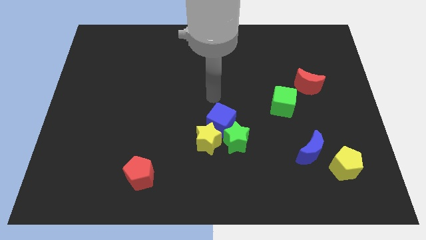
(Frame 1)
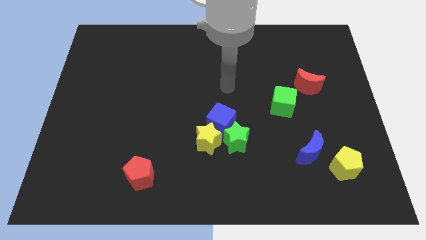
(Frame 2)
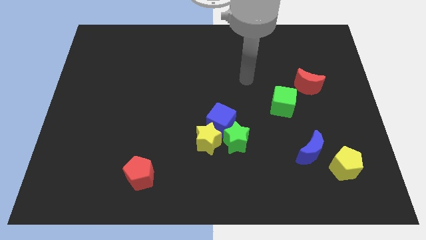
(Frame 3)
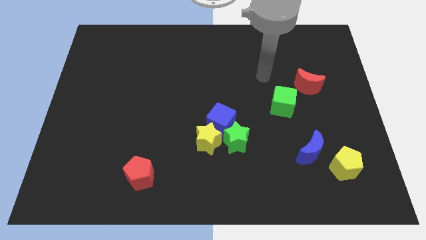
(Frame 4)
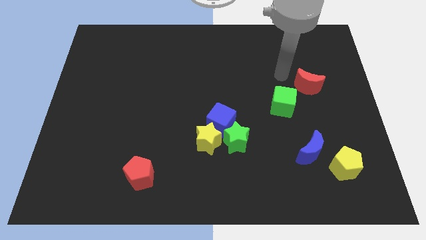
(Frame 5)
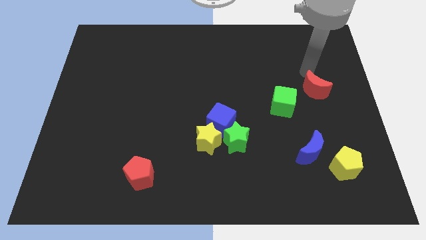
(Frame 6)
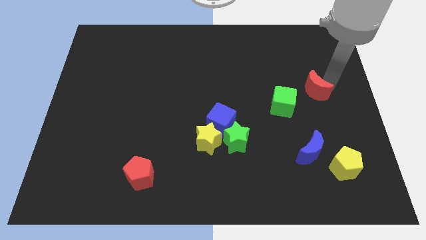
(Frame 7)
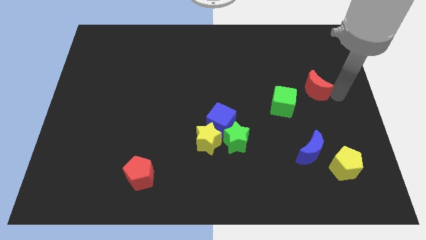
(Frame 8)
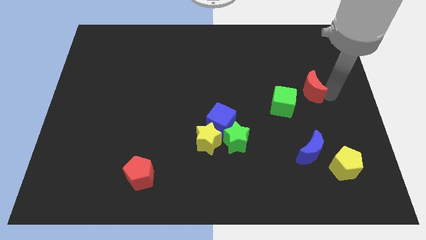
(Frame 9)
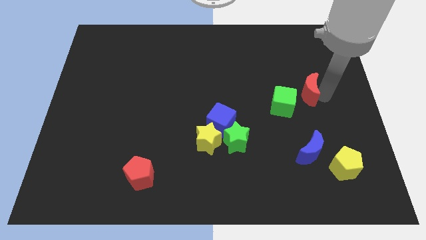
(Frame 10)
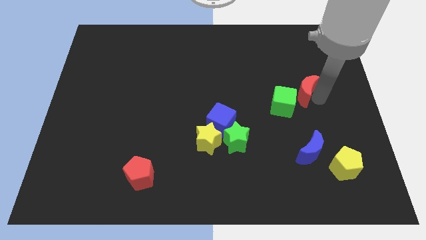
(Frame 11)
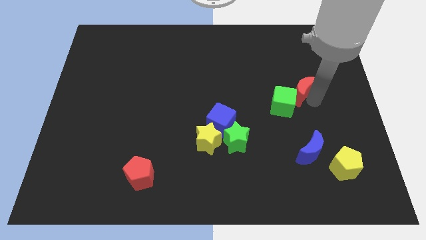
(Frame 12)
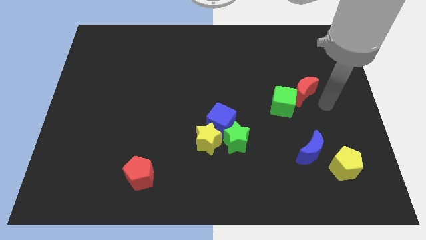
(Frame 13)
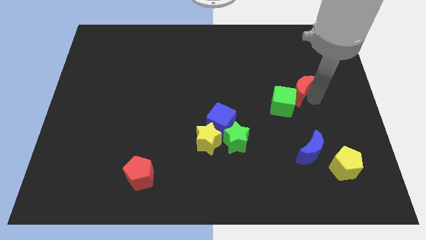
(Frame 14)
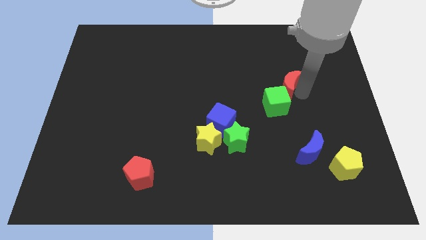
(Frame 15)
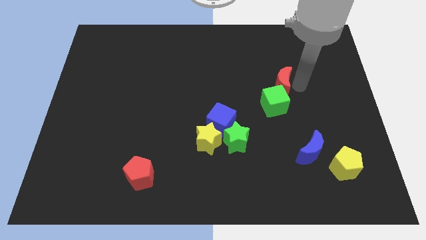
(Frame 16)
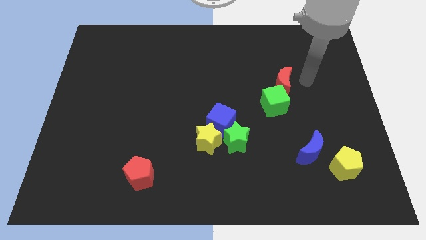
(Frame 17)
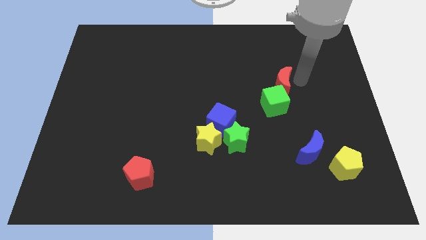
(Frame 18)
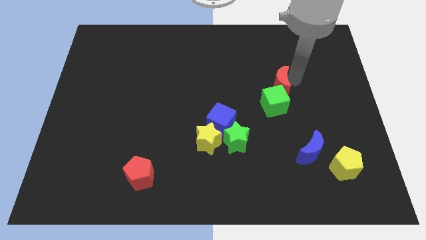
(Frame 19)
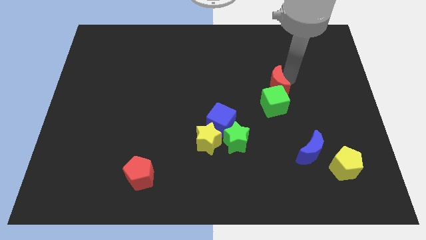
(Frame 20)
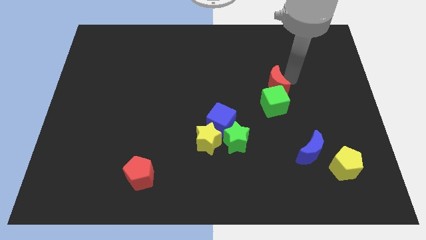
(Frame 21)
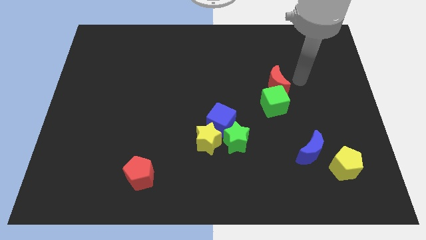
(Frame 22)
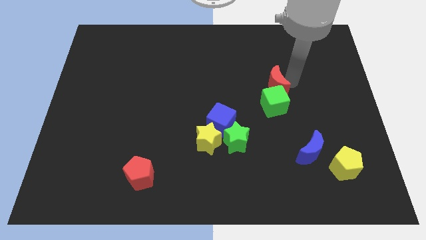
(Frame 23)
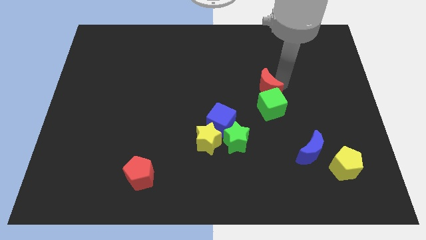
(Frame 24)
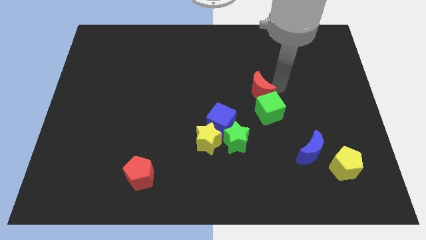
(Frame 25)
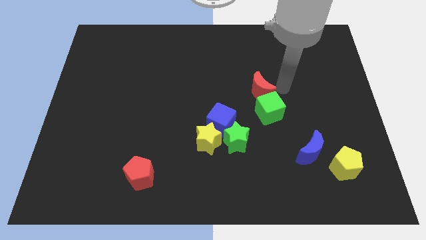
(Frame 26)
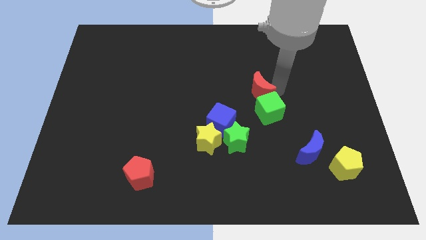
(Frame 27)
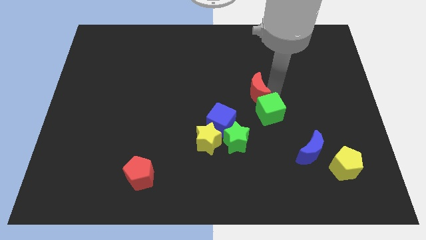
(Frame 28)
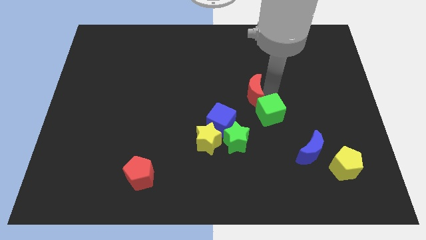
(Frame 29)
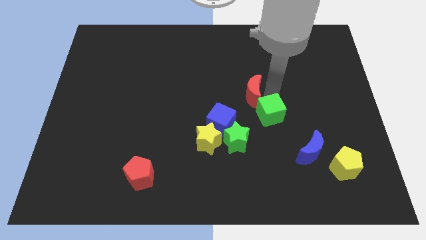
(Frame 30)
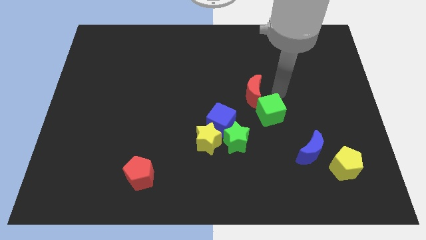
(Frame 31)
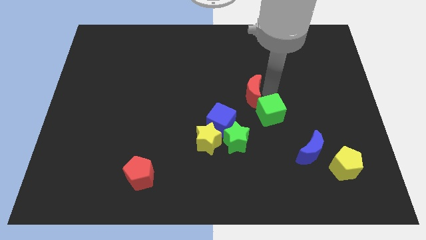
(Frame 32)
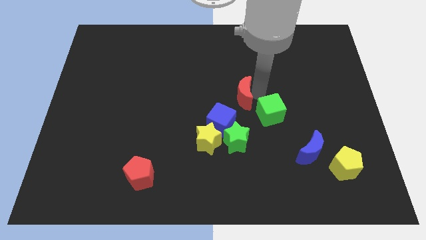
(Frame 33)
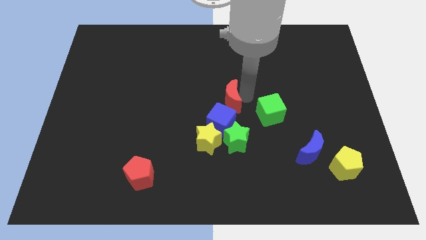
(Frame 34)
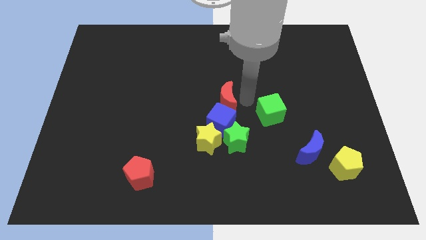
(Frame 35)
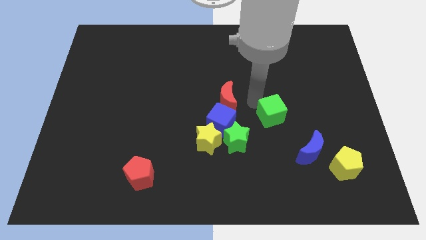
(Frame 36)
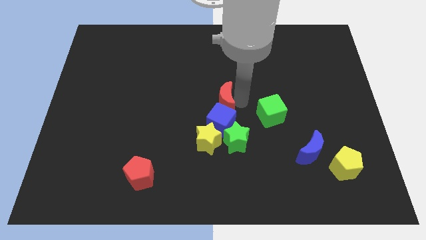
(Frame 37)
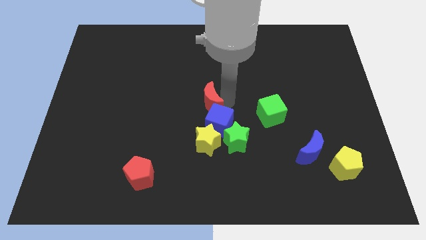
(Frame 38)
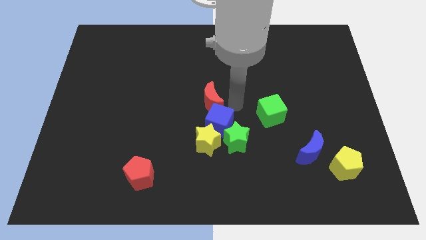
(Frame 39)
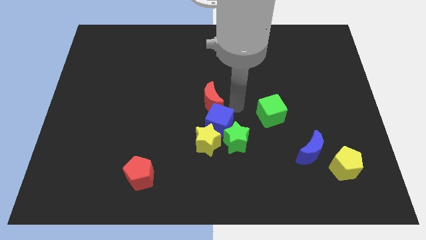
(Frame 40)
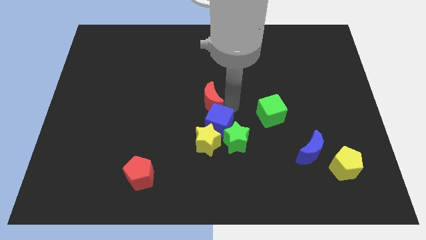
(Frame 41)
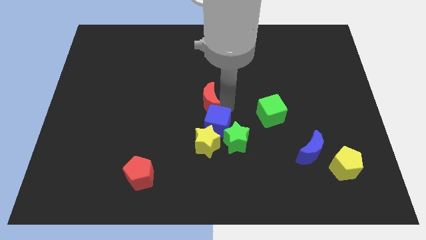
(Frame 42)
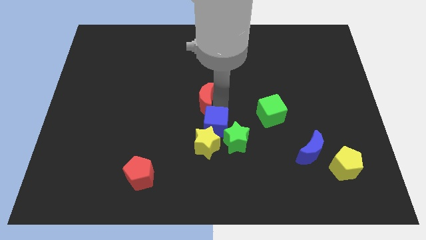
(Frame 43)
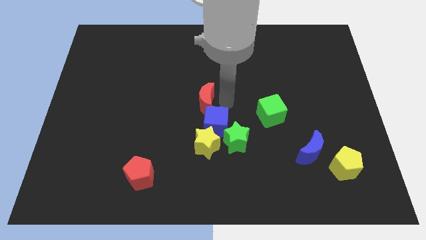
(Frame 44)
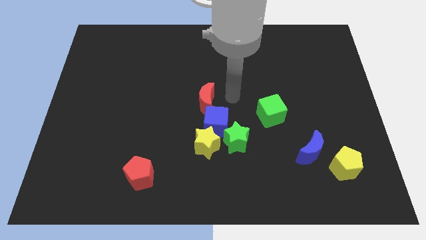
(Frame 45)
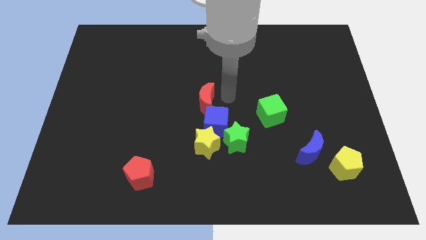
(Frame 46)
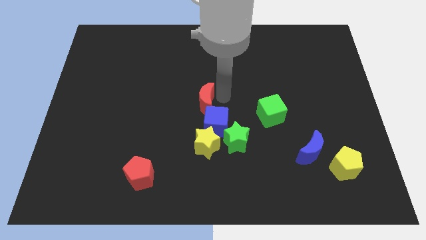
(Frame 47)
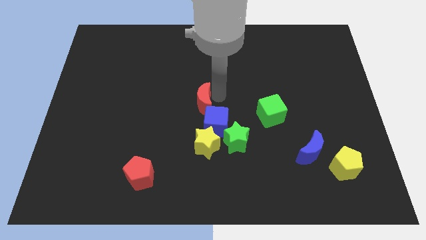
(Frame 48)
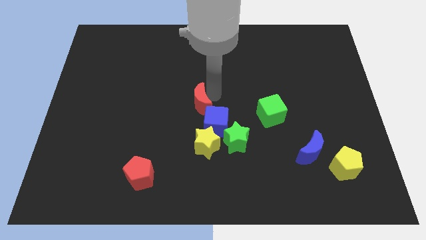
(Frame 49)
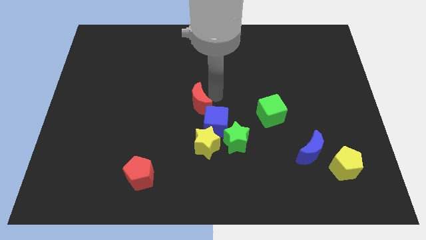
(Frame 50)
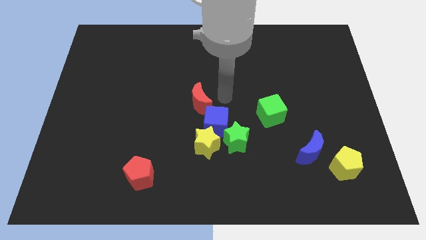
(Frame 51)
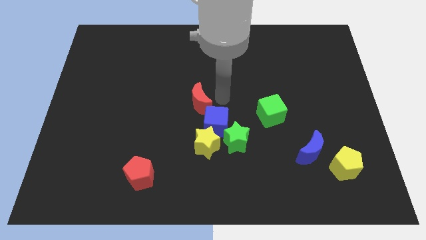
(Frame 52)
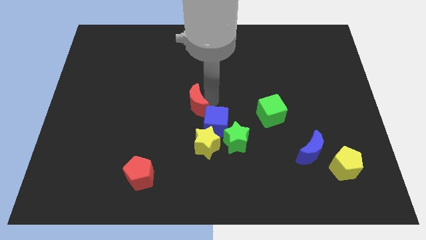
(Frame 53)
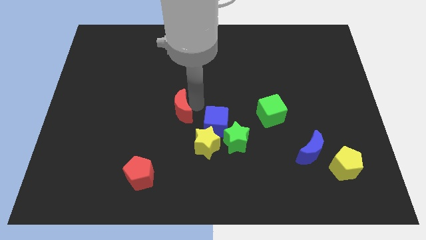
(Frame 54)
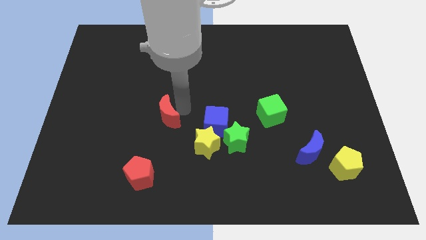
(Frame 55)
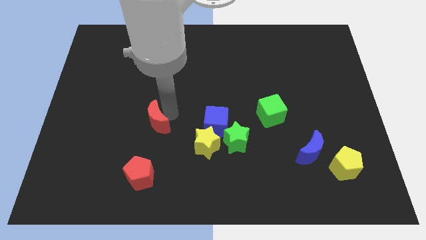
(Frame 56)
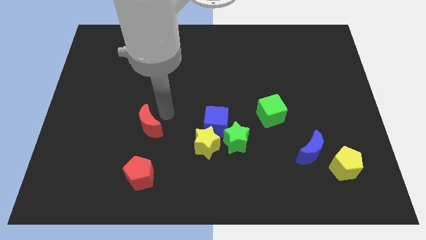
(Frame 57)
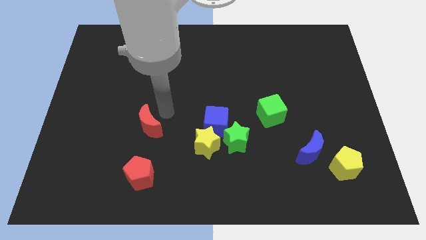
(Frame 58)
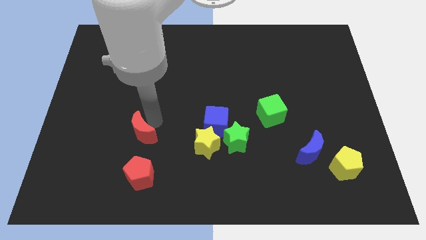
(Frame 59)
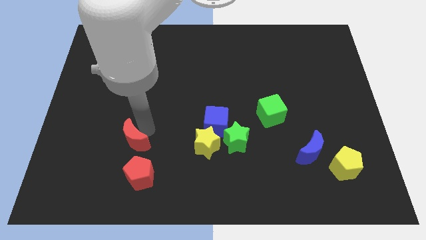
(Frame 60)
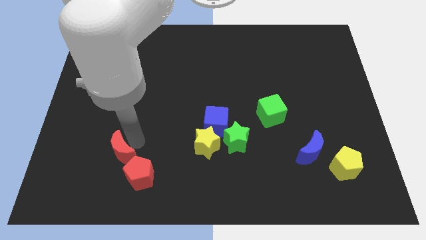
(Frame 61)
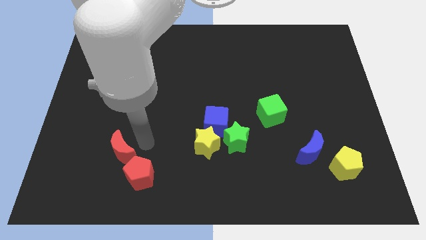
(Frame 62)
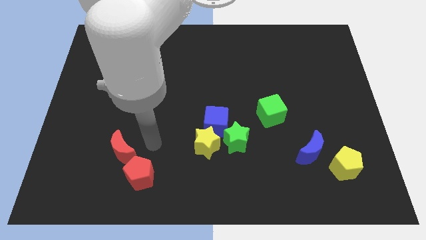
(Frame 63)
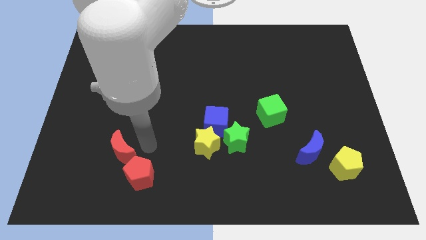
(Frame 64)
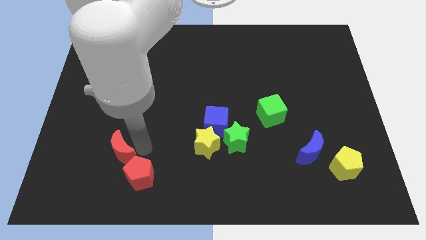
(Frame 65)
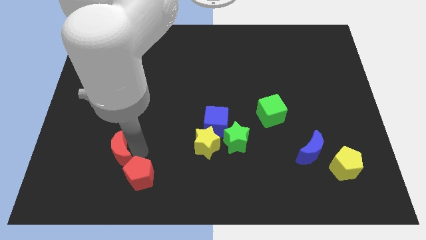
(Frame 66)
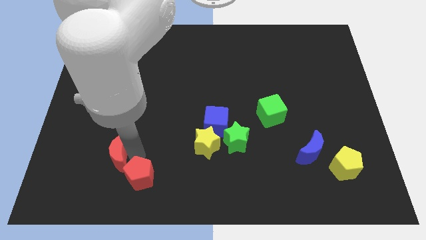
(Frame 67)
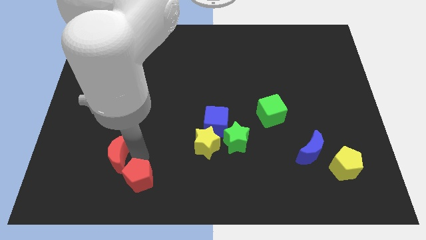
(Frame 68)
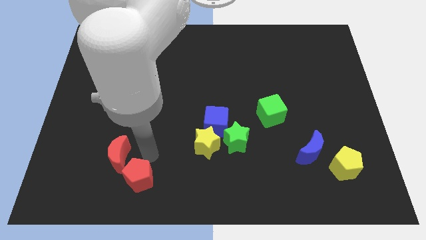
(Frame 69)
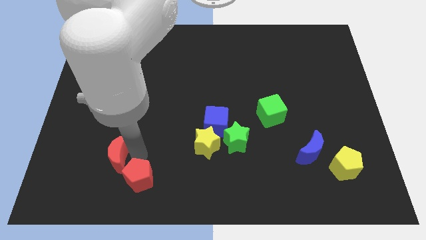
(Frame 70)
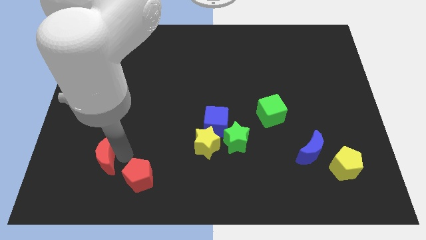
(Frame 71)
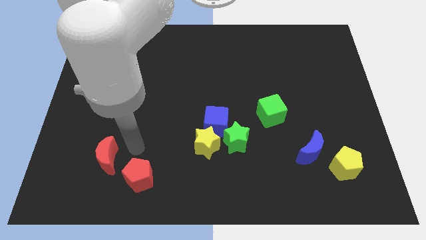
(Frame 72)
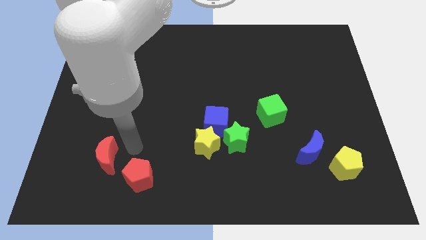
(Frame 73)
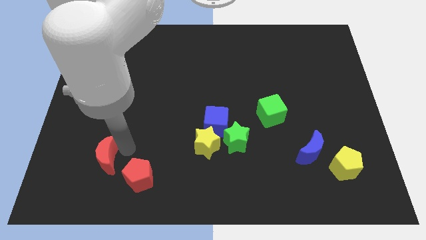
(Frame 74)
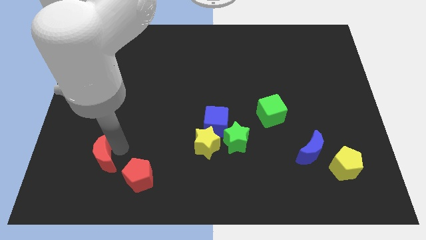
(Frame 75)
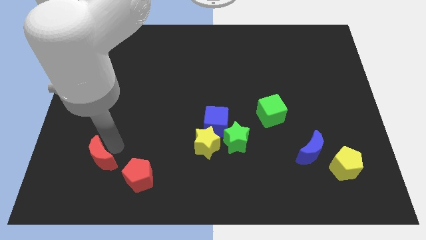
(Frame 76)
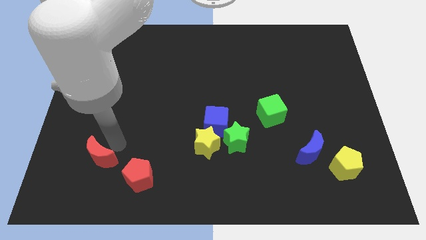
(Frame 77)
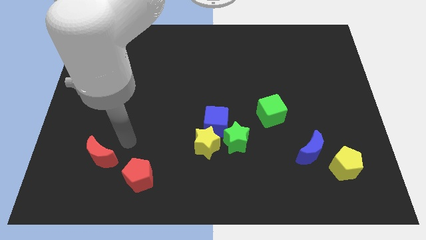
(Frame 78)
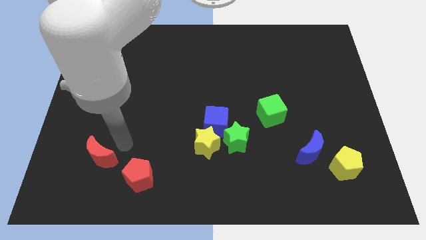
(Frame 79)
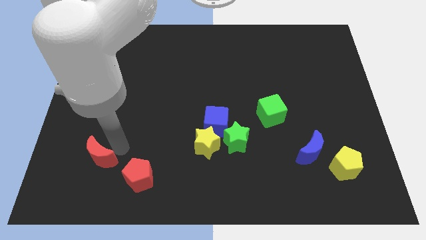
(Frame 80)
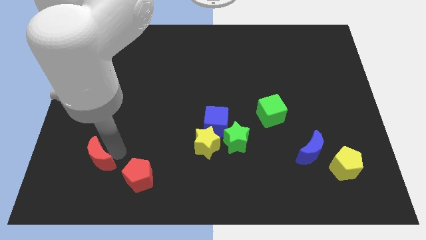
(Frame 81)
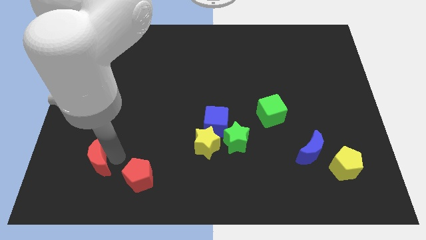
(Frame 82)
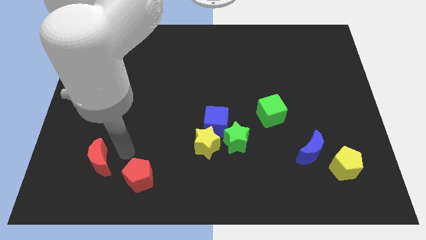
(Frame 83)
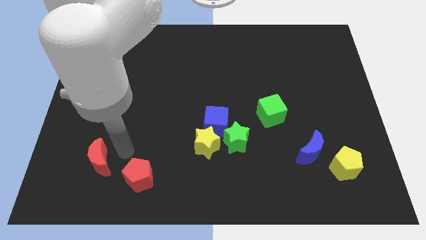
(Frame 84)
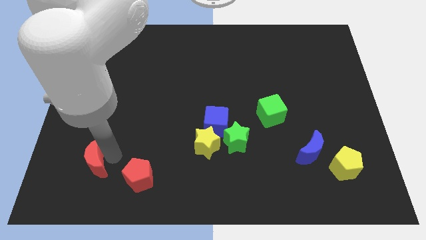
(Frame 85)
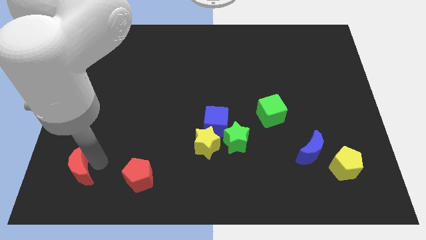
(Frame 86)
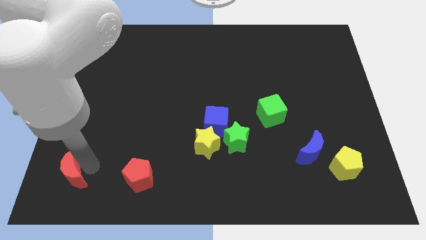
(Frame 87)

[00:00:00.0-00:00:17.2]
move the red moon to the bottom left
